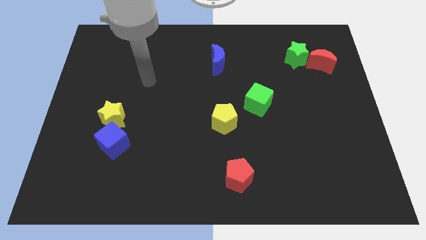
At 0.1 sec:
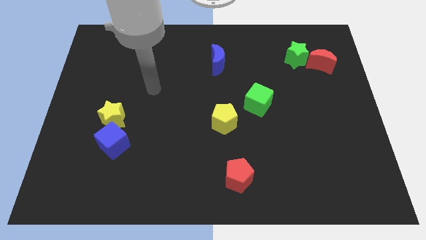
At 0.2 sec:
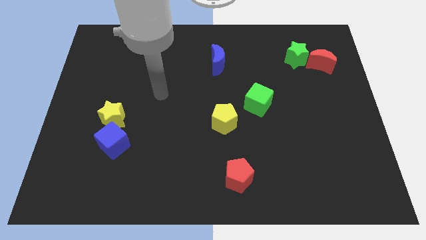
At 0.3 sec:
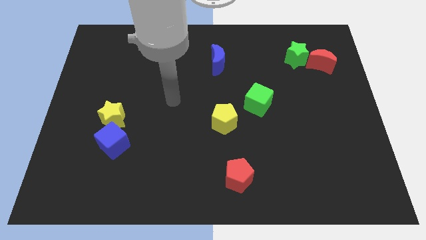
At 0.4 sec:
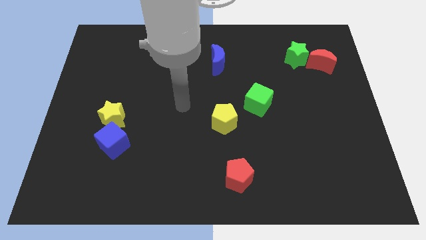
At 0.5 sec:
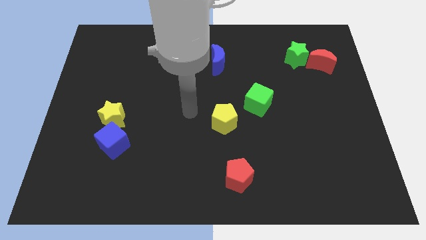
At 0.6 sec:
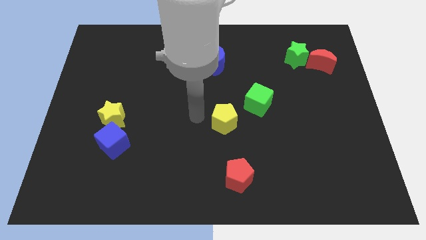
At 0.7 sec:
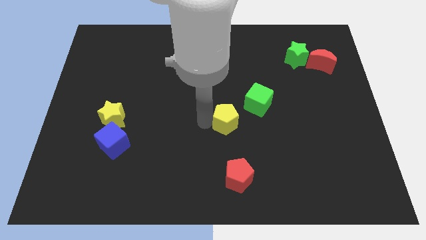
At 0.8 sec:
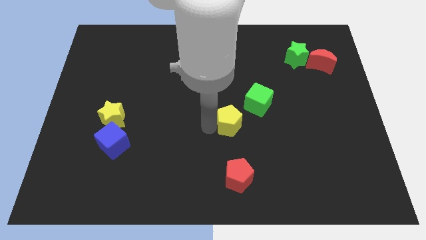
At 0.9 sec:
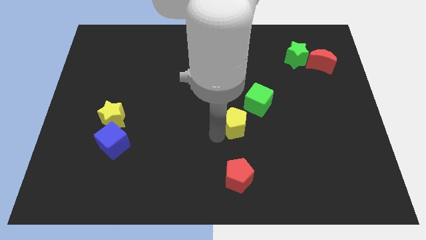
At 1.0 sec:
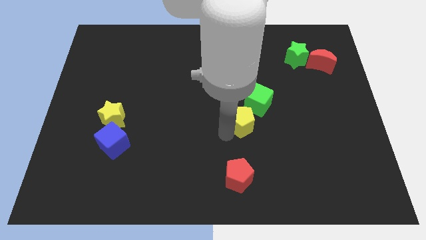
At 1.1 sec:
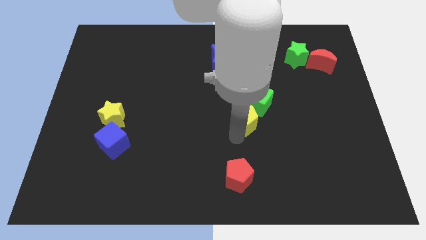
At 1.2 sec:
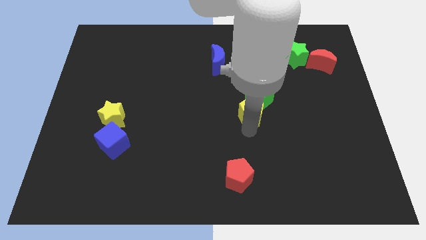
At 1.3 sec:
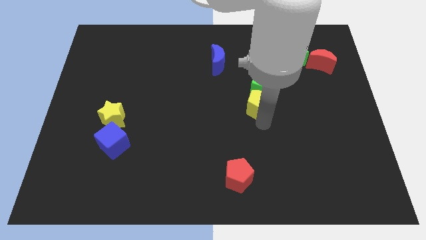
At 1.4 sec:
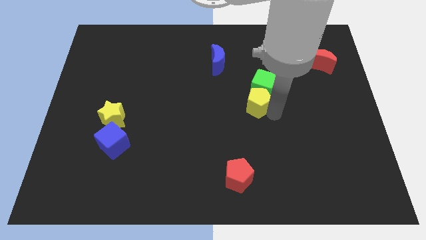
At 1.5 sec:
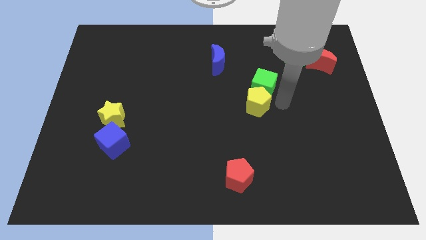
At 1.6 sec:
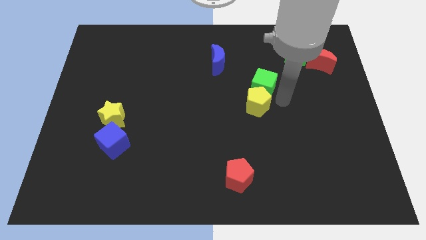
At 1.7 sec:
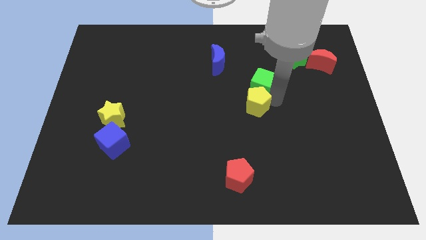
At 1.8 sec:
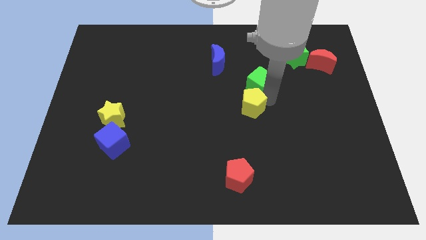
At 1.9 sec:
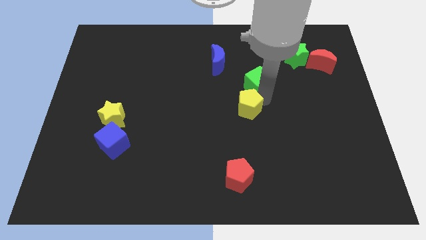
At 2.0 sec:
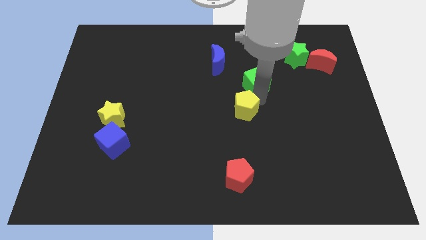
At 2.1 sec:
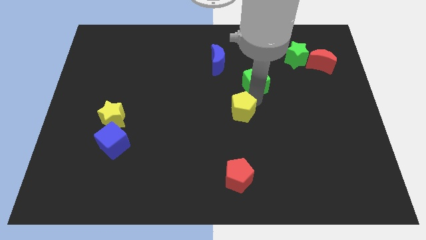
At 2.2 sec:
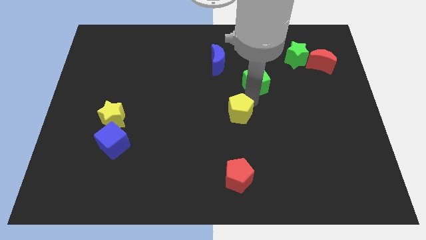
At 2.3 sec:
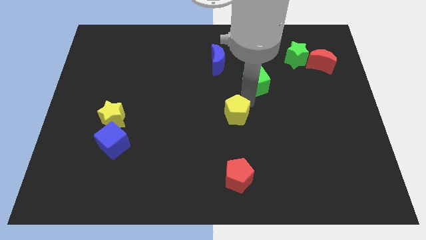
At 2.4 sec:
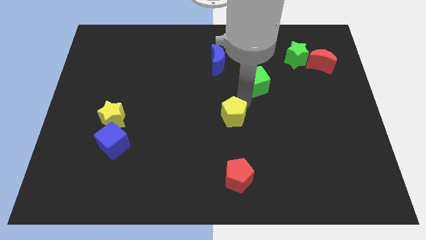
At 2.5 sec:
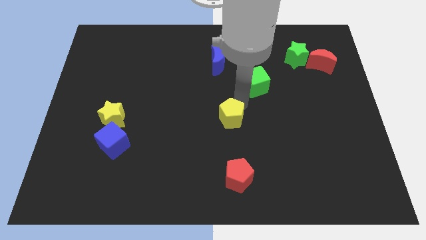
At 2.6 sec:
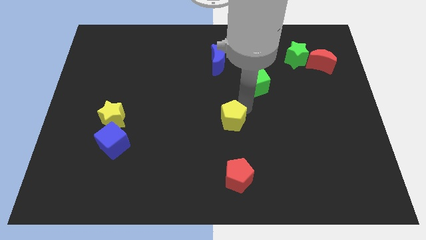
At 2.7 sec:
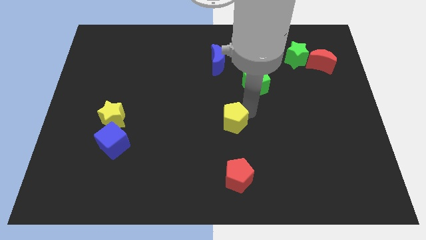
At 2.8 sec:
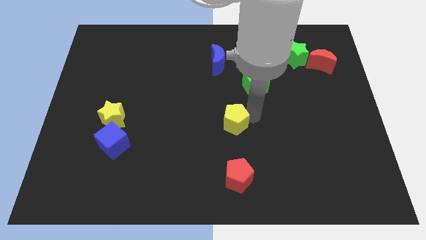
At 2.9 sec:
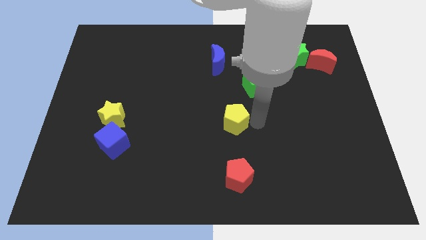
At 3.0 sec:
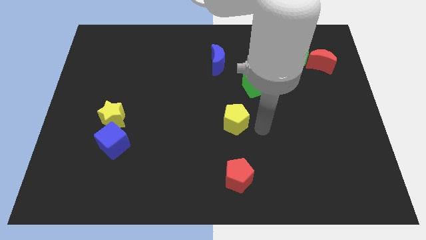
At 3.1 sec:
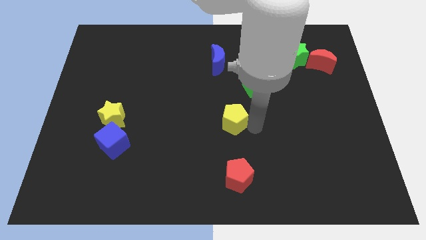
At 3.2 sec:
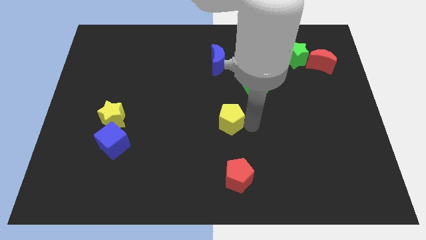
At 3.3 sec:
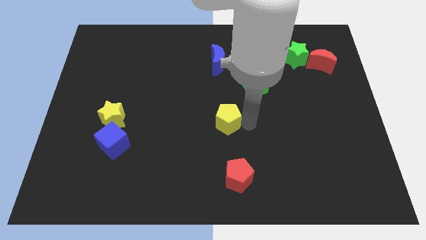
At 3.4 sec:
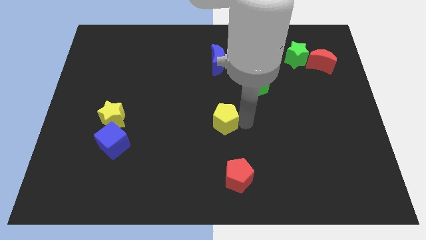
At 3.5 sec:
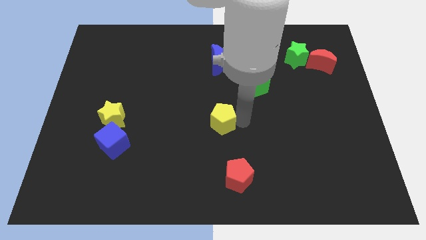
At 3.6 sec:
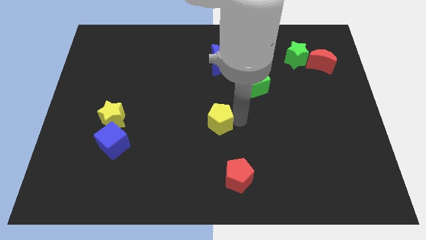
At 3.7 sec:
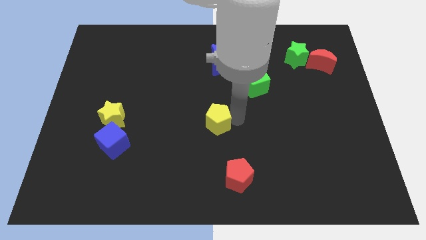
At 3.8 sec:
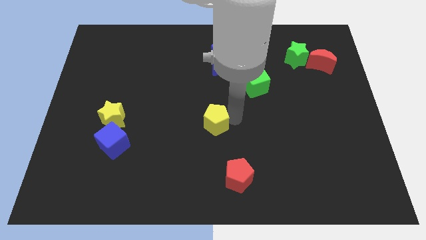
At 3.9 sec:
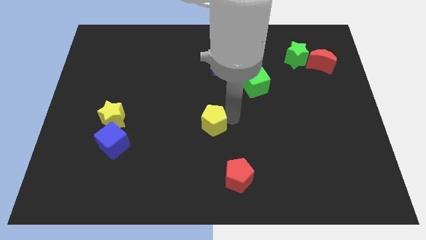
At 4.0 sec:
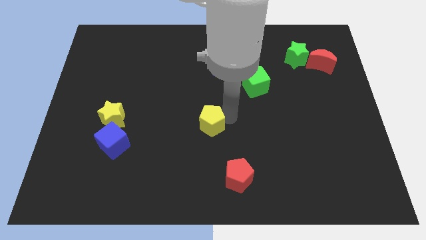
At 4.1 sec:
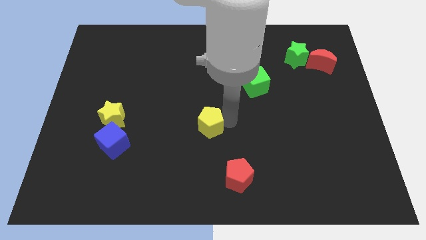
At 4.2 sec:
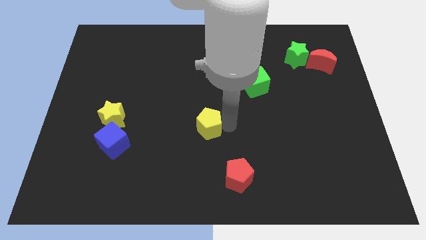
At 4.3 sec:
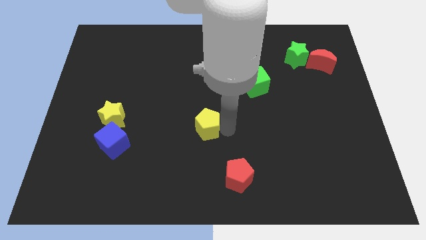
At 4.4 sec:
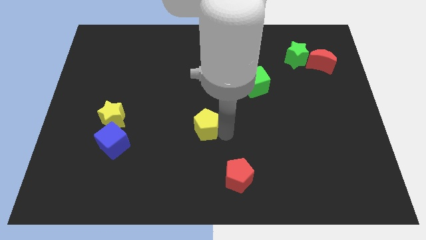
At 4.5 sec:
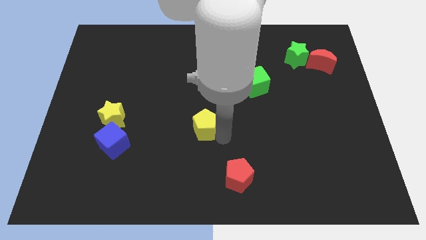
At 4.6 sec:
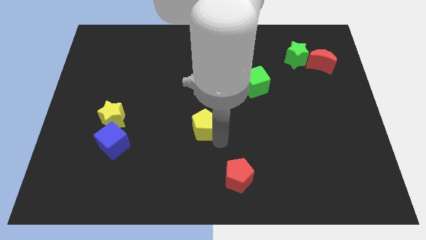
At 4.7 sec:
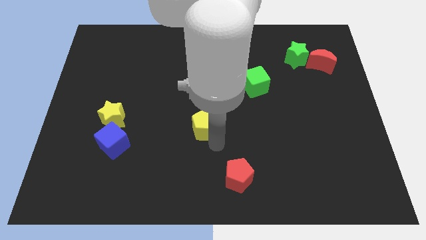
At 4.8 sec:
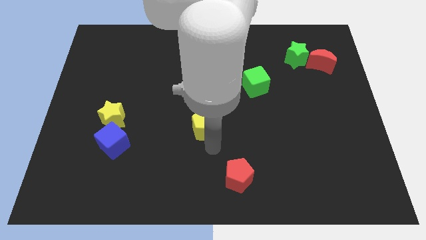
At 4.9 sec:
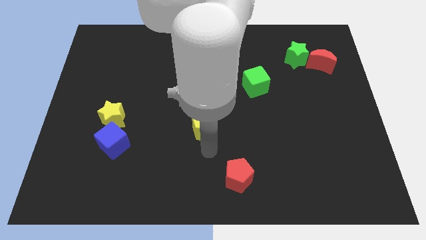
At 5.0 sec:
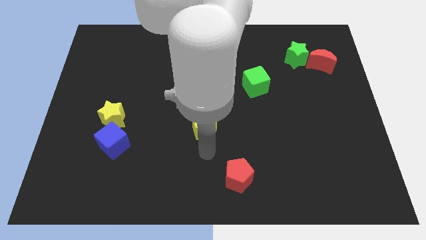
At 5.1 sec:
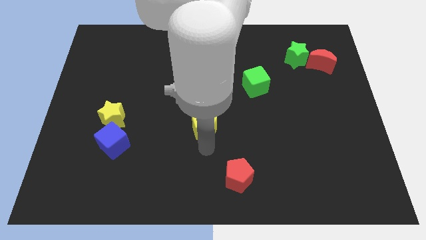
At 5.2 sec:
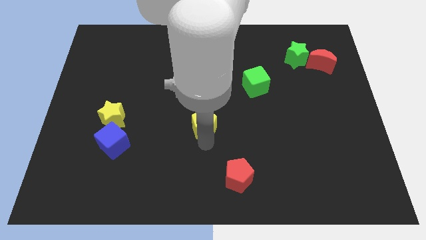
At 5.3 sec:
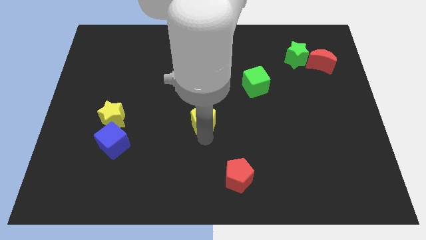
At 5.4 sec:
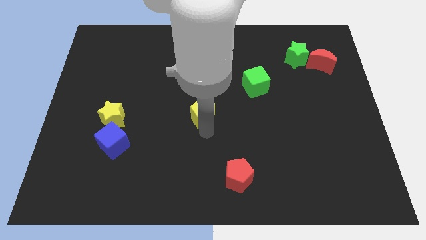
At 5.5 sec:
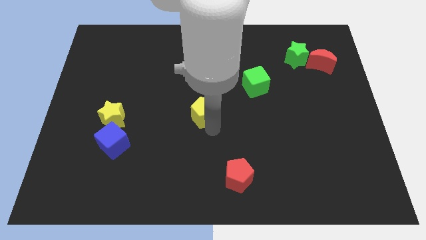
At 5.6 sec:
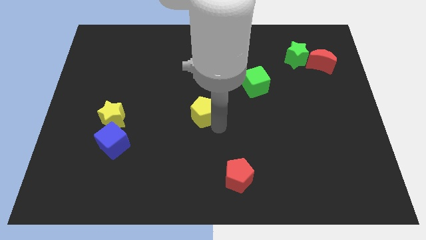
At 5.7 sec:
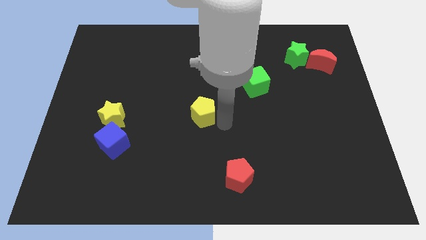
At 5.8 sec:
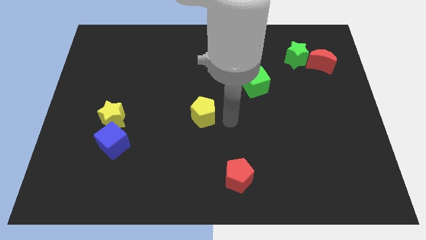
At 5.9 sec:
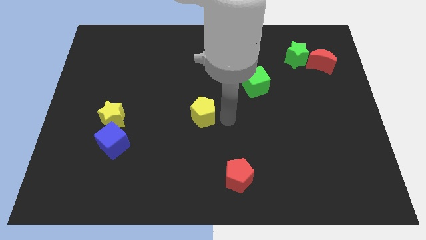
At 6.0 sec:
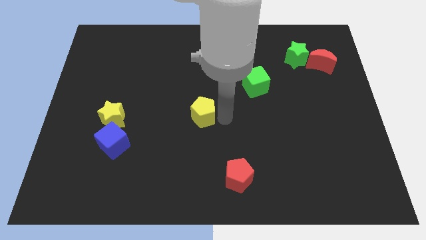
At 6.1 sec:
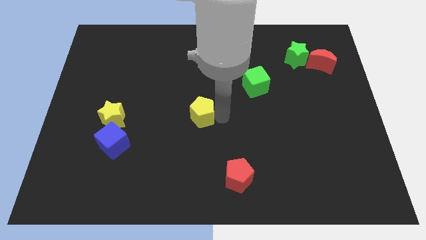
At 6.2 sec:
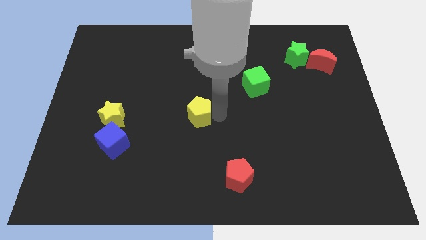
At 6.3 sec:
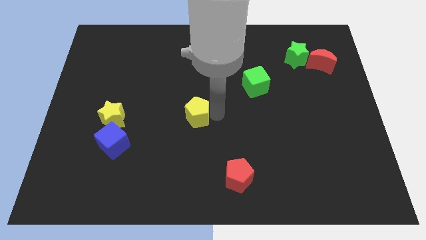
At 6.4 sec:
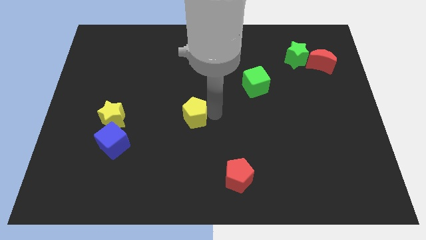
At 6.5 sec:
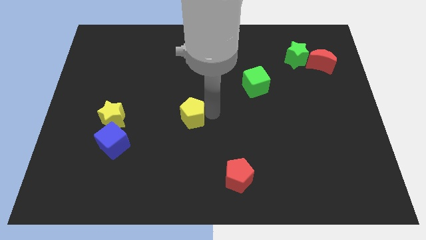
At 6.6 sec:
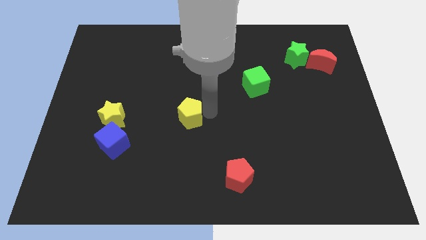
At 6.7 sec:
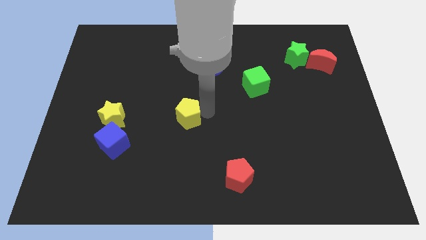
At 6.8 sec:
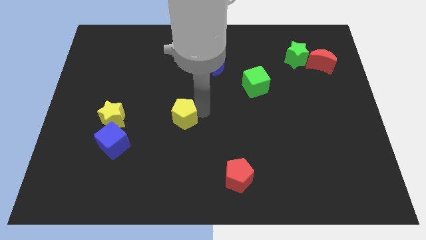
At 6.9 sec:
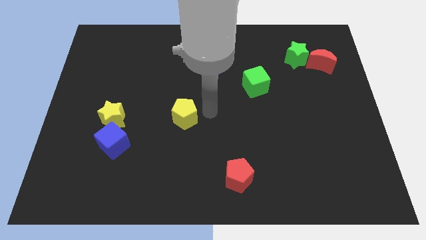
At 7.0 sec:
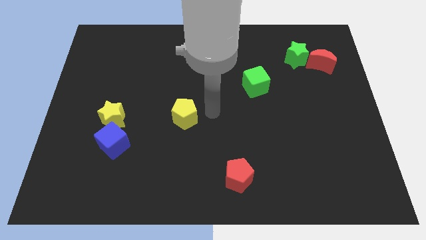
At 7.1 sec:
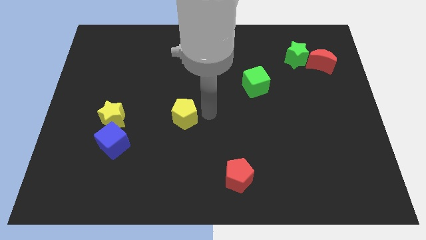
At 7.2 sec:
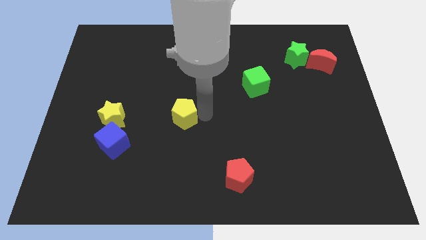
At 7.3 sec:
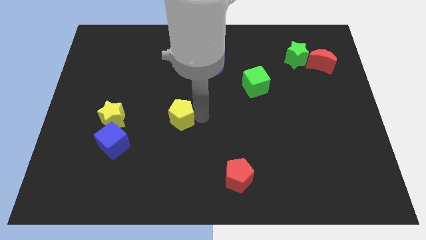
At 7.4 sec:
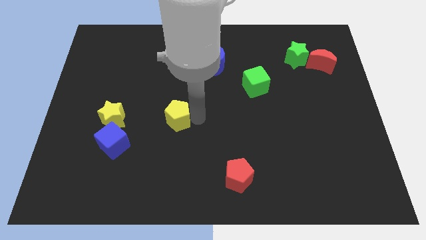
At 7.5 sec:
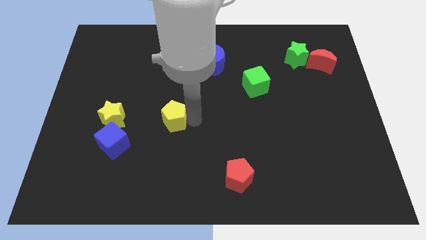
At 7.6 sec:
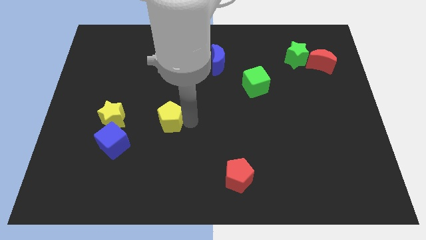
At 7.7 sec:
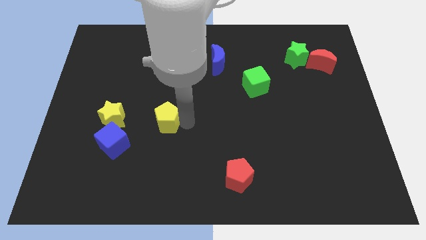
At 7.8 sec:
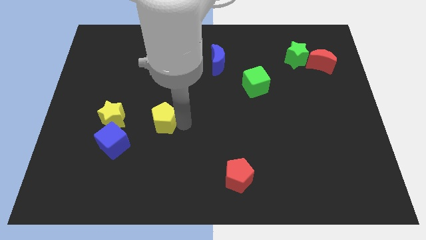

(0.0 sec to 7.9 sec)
push the yellow pentagon to the top right side of the blue cube
